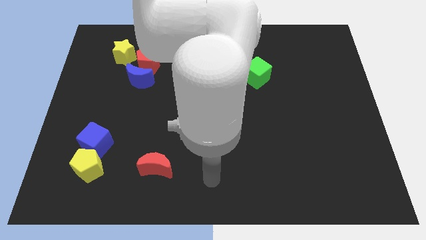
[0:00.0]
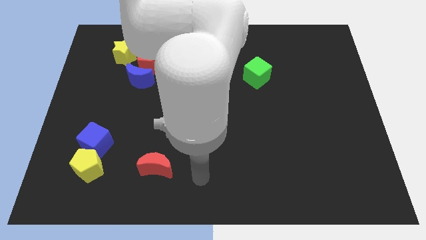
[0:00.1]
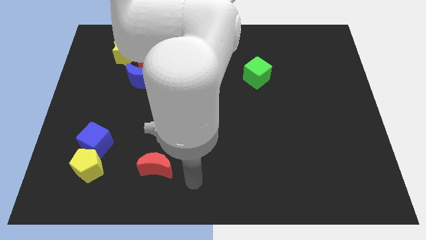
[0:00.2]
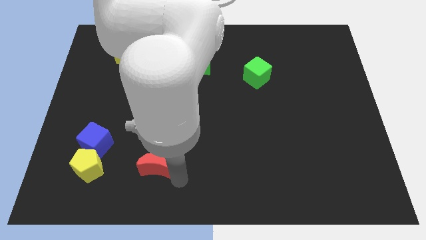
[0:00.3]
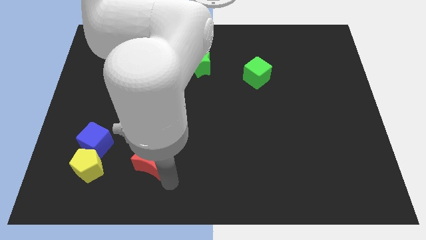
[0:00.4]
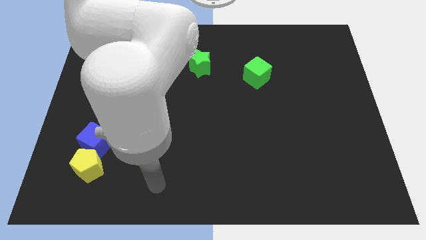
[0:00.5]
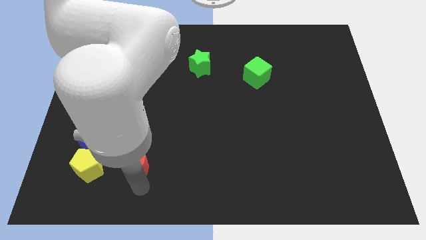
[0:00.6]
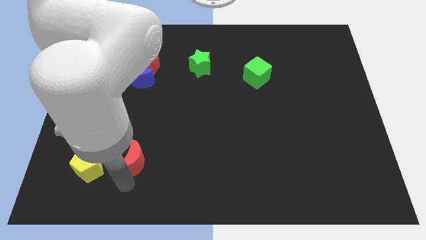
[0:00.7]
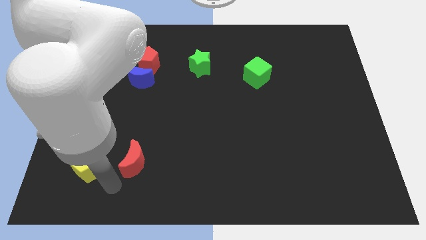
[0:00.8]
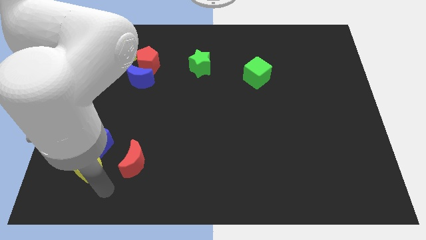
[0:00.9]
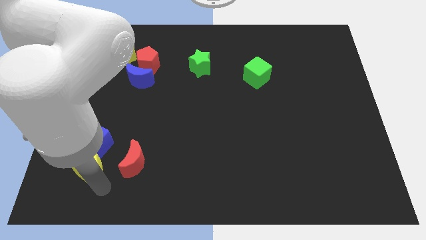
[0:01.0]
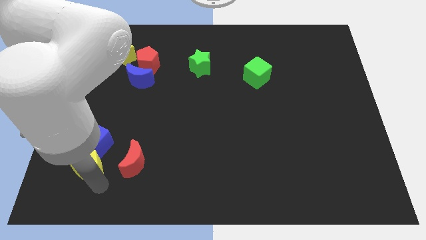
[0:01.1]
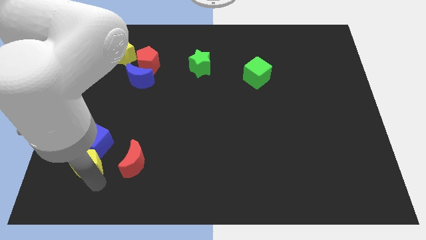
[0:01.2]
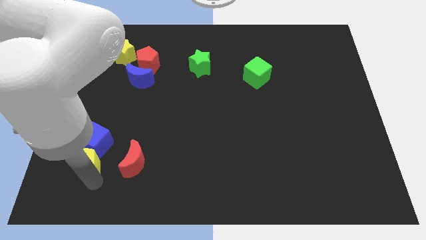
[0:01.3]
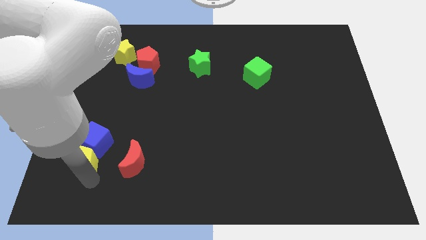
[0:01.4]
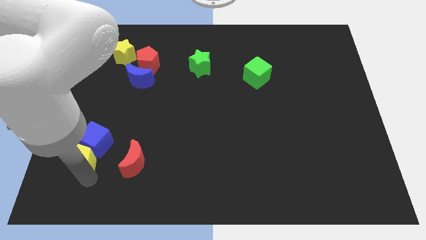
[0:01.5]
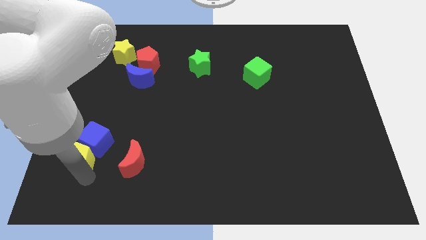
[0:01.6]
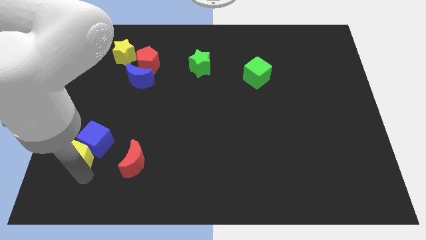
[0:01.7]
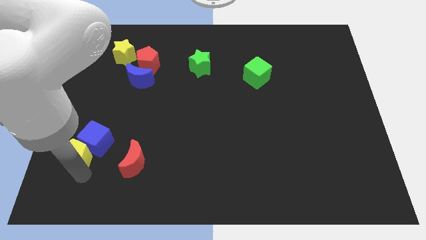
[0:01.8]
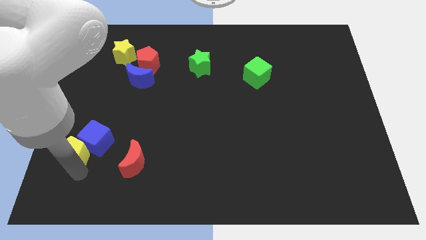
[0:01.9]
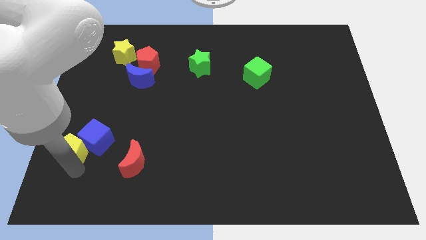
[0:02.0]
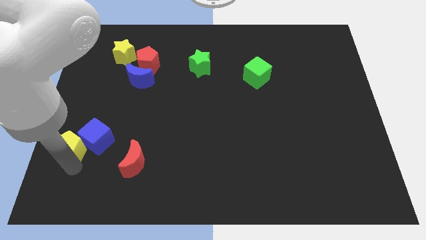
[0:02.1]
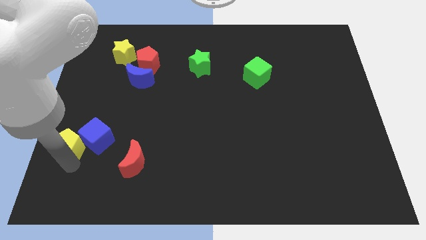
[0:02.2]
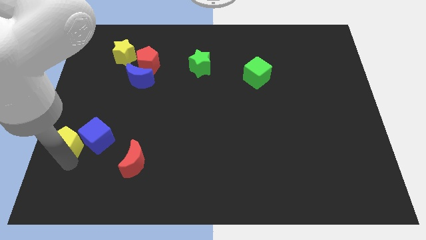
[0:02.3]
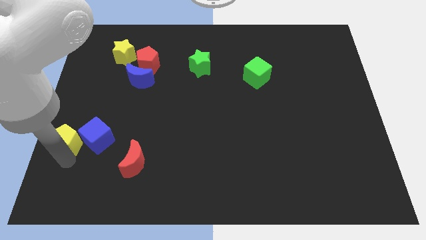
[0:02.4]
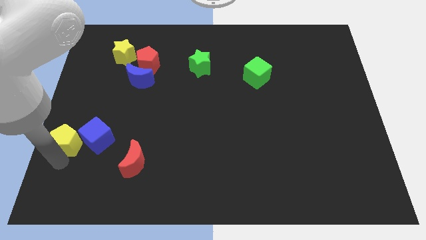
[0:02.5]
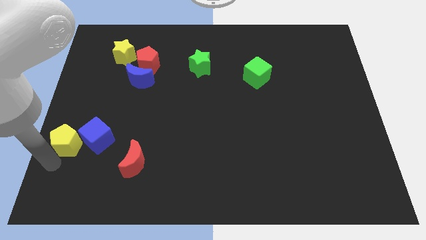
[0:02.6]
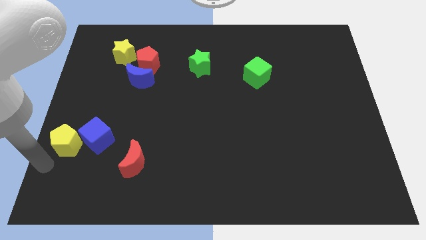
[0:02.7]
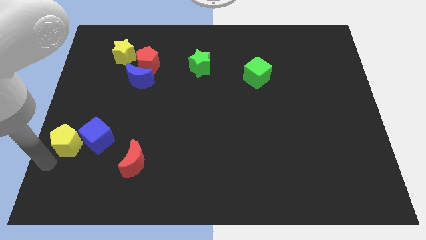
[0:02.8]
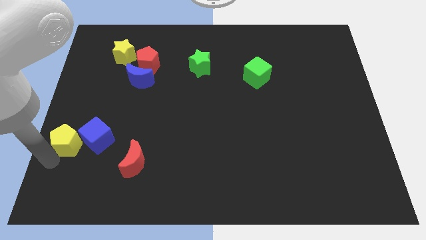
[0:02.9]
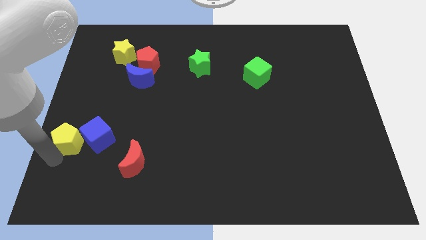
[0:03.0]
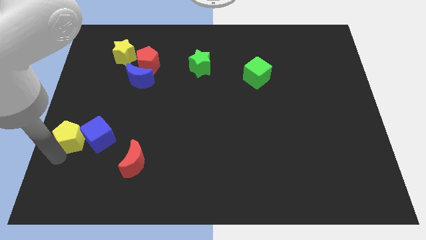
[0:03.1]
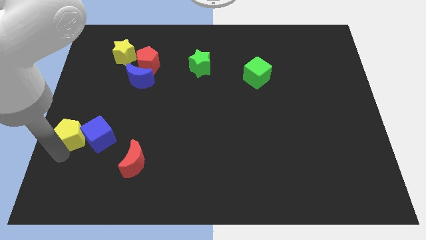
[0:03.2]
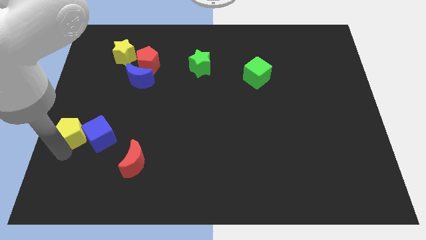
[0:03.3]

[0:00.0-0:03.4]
slightly push the yellow pentagon upwards

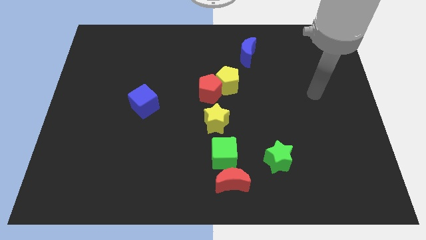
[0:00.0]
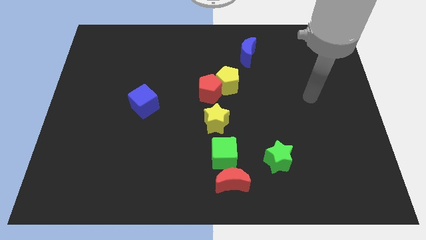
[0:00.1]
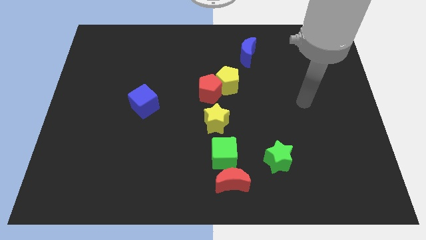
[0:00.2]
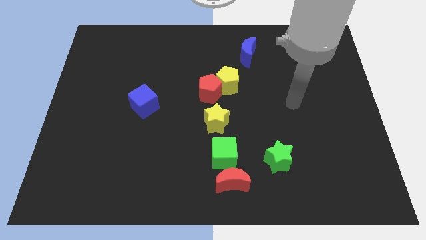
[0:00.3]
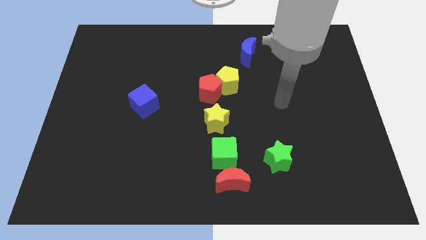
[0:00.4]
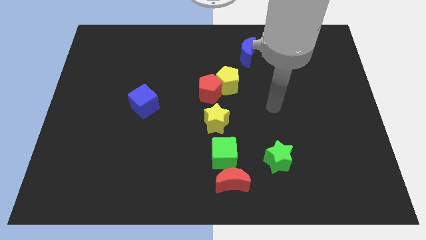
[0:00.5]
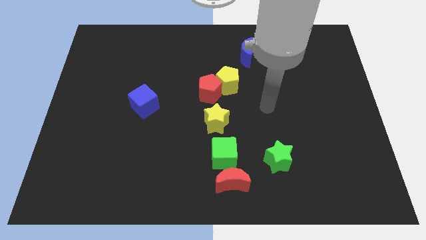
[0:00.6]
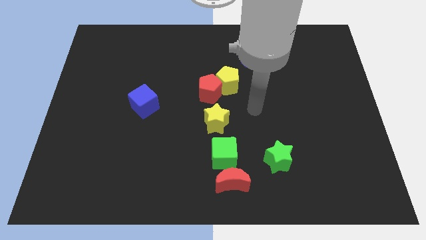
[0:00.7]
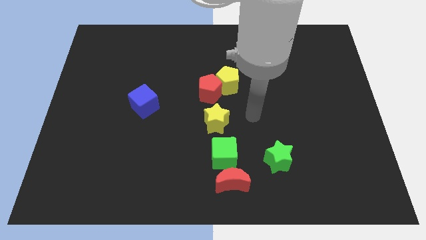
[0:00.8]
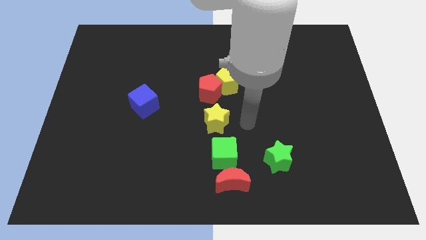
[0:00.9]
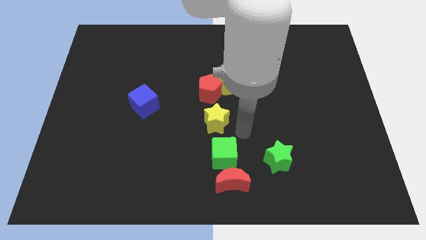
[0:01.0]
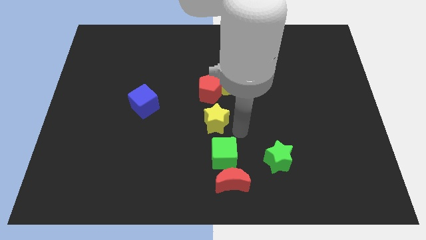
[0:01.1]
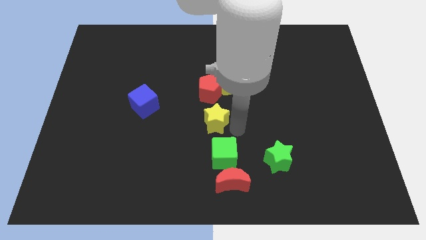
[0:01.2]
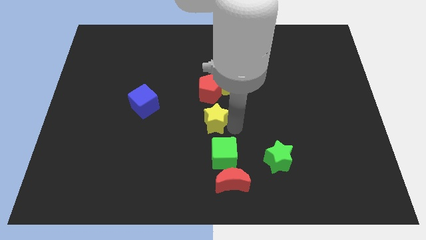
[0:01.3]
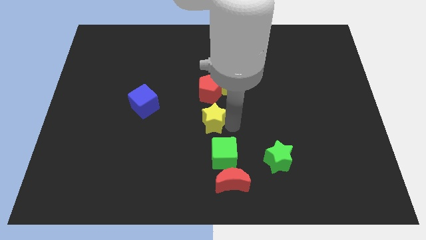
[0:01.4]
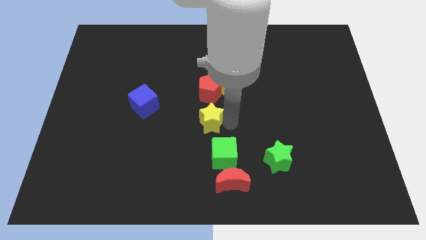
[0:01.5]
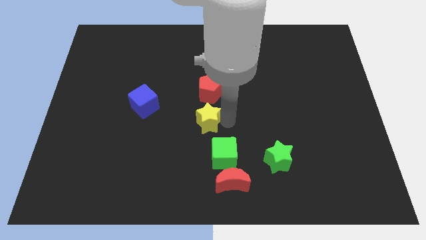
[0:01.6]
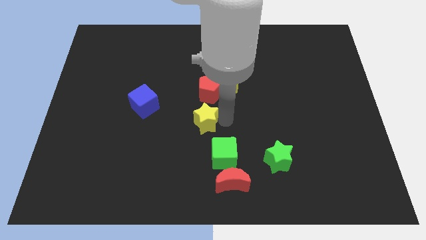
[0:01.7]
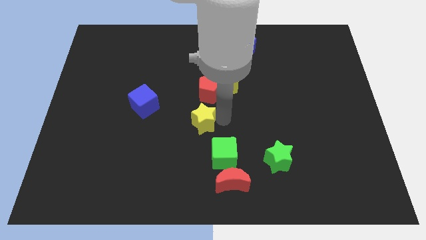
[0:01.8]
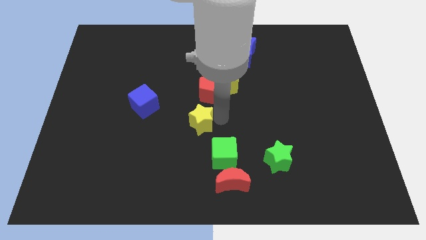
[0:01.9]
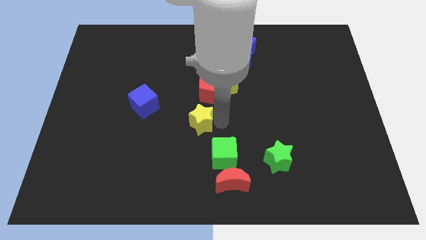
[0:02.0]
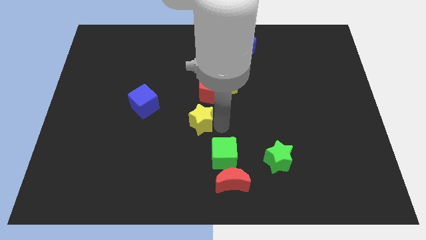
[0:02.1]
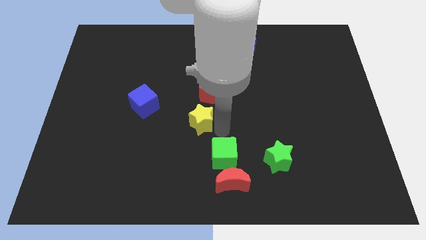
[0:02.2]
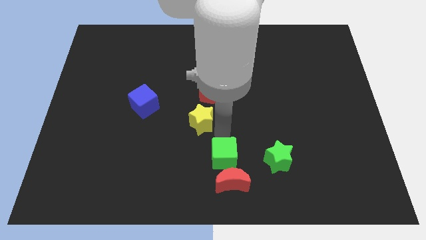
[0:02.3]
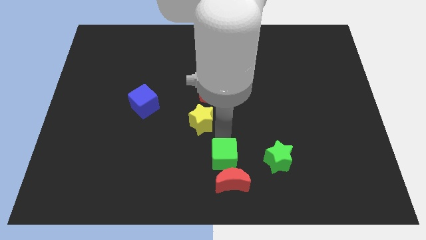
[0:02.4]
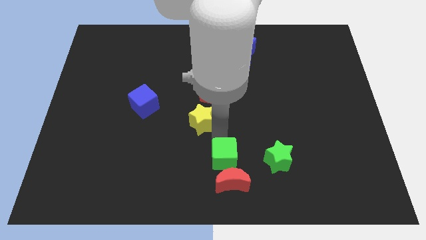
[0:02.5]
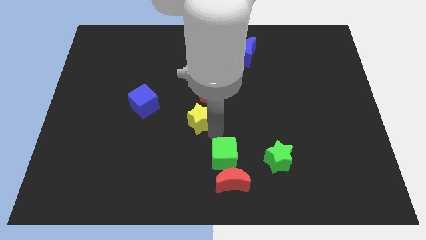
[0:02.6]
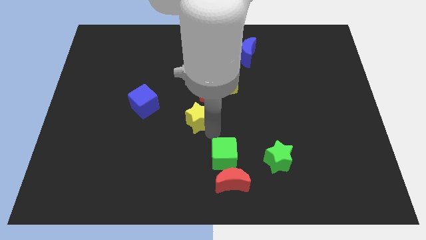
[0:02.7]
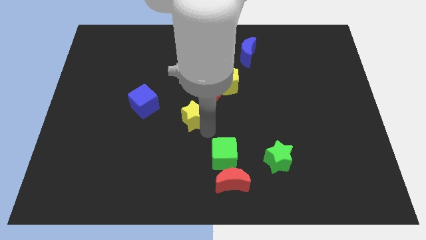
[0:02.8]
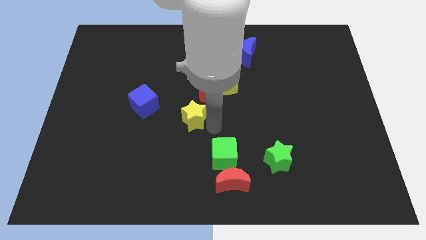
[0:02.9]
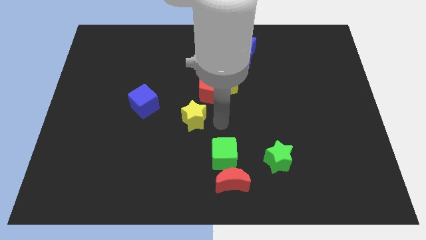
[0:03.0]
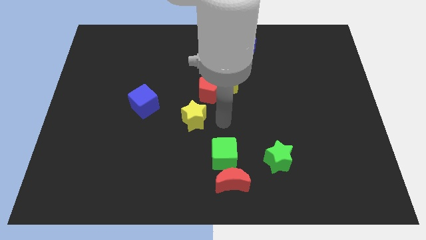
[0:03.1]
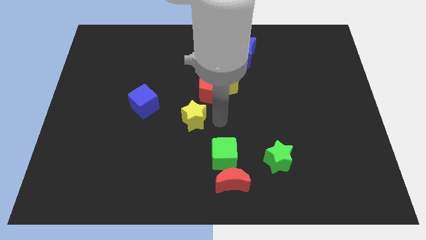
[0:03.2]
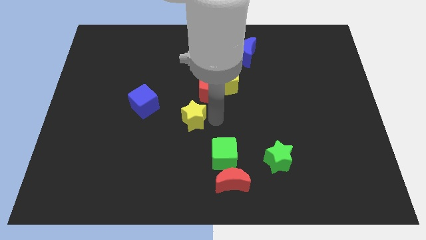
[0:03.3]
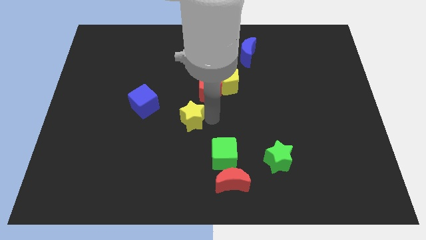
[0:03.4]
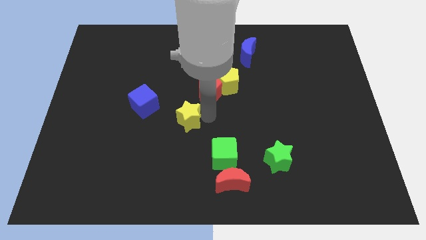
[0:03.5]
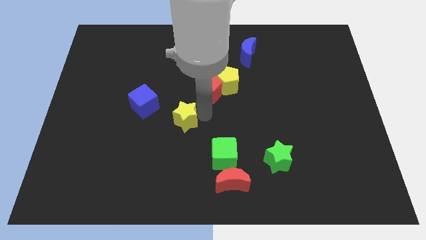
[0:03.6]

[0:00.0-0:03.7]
slide the yellow star a bit to the left

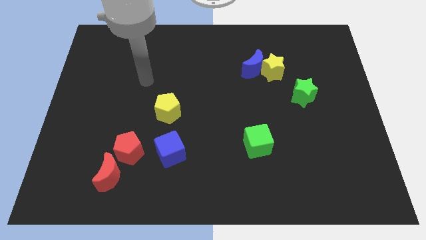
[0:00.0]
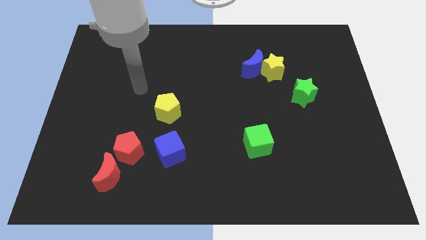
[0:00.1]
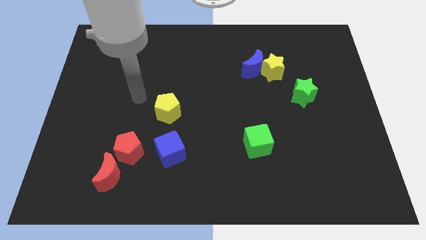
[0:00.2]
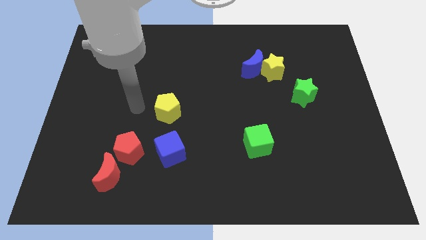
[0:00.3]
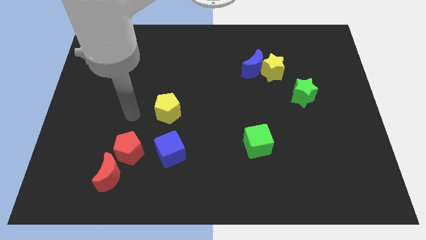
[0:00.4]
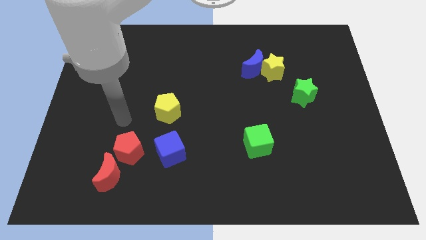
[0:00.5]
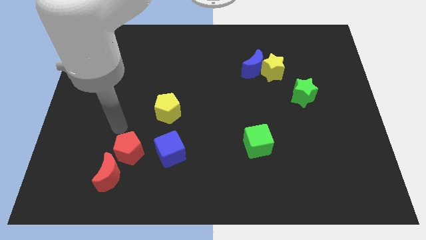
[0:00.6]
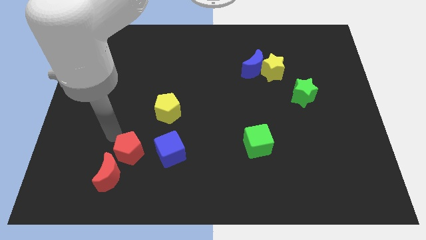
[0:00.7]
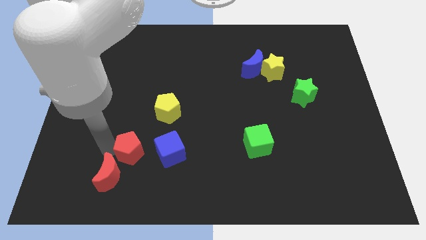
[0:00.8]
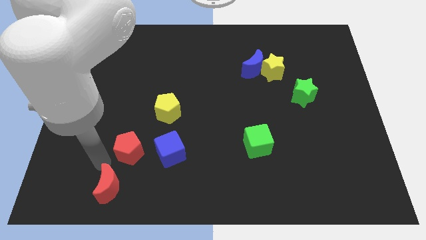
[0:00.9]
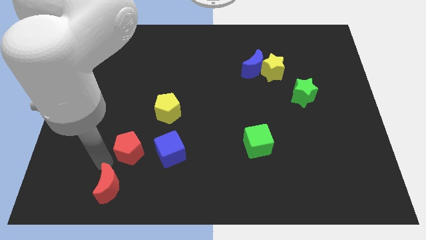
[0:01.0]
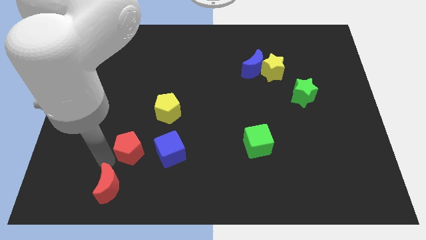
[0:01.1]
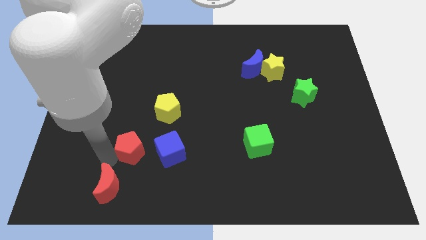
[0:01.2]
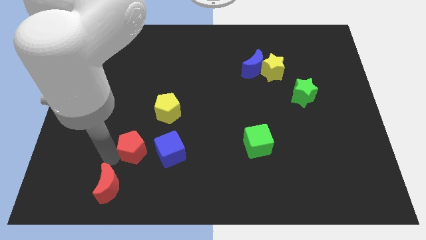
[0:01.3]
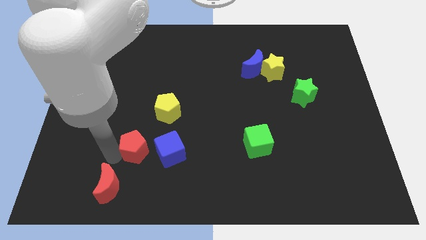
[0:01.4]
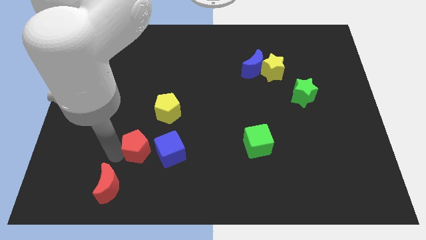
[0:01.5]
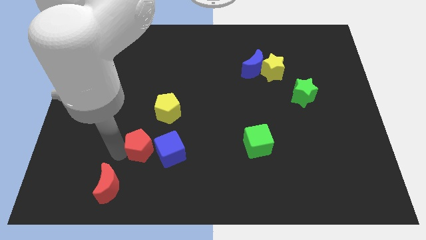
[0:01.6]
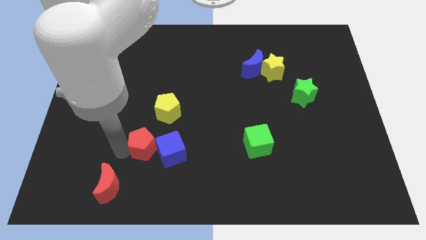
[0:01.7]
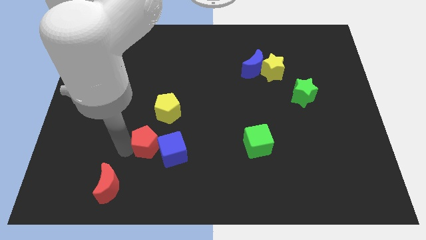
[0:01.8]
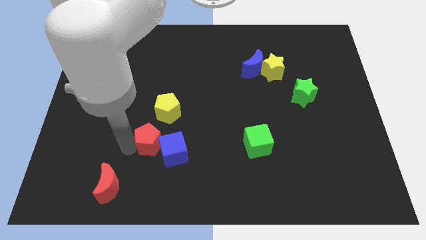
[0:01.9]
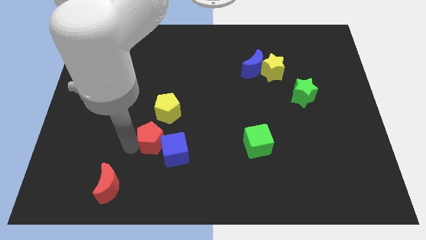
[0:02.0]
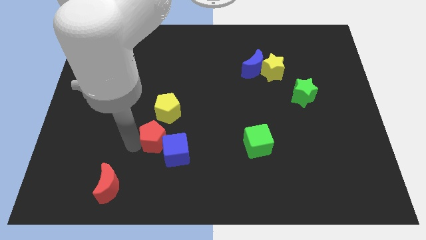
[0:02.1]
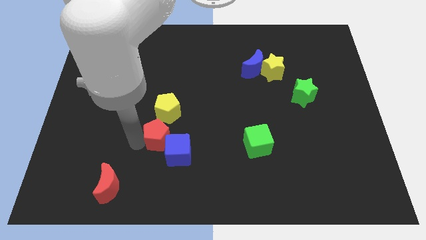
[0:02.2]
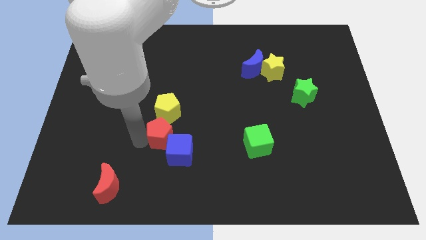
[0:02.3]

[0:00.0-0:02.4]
slightly push the red pentagon upwards and right
